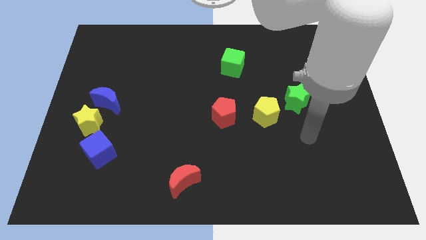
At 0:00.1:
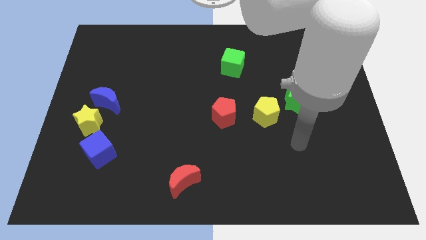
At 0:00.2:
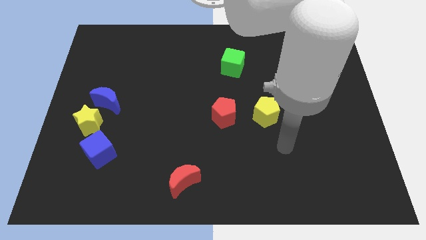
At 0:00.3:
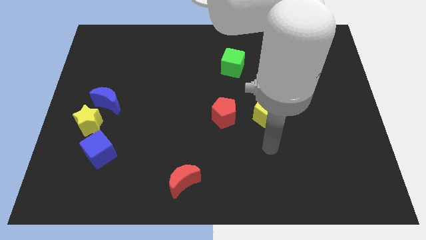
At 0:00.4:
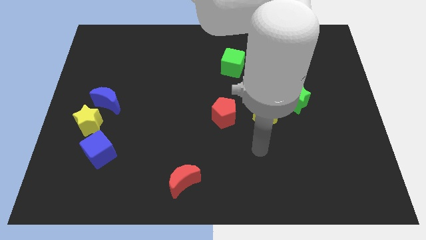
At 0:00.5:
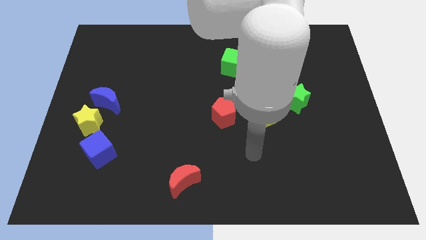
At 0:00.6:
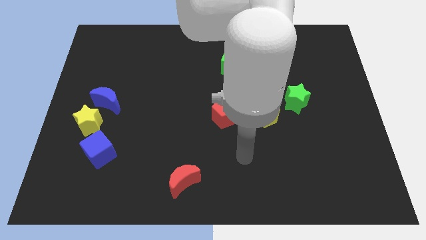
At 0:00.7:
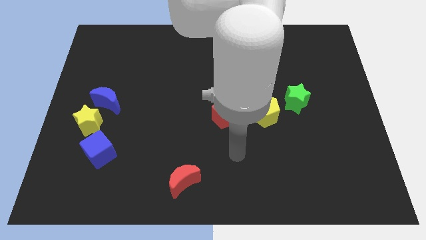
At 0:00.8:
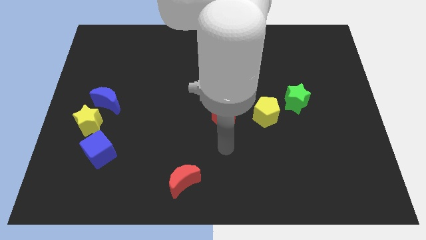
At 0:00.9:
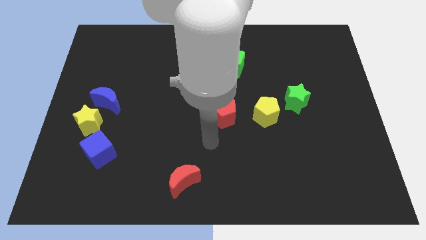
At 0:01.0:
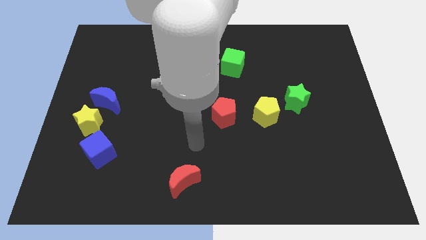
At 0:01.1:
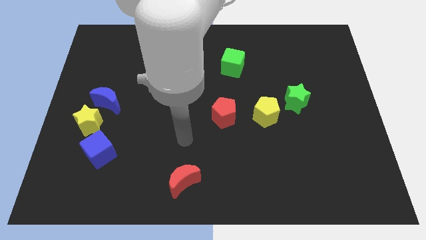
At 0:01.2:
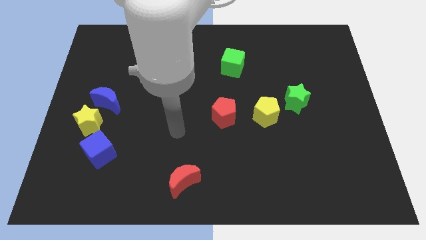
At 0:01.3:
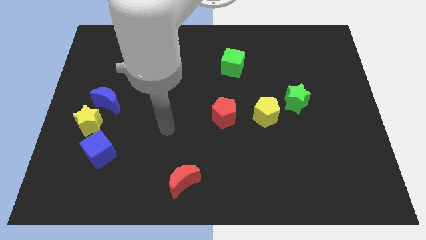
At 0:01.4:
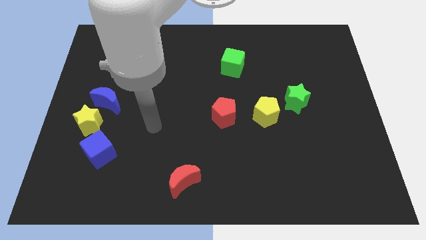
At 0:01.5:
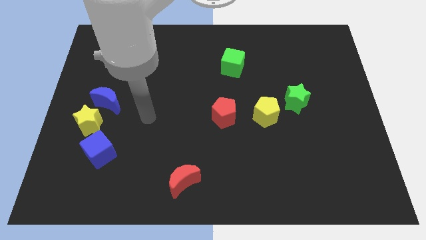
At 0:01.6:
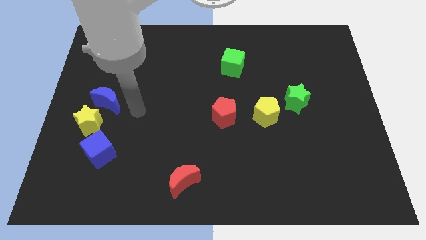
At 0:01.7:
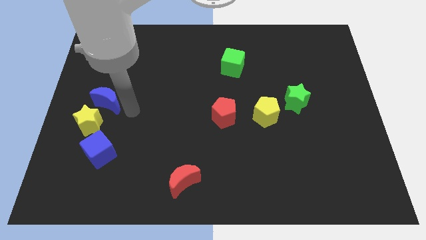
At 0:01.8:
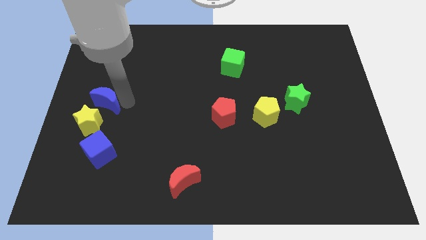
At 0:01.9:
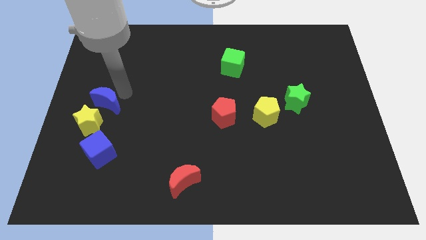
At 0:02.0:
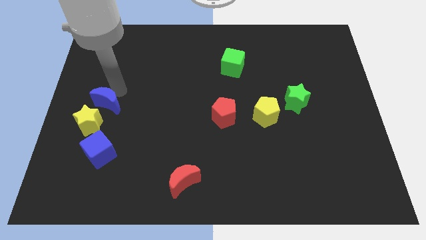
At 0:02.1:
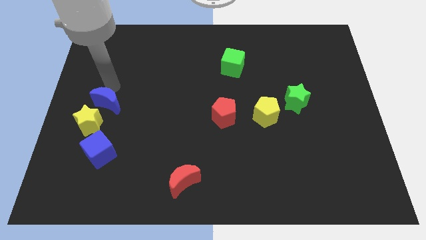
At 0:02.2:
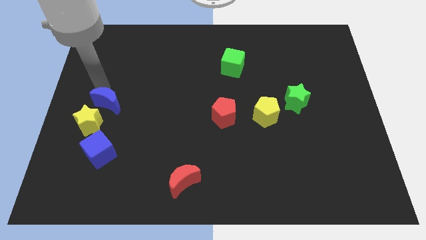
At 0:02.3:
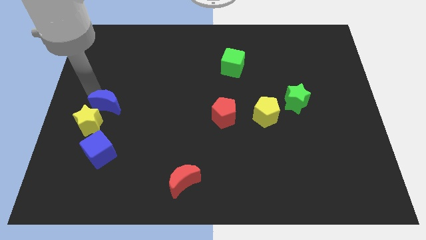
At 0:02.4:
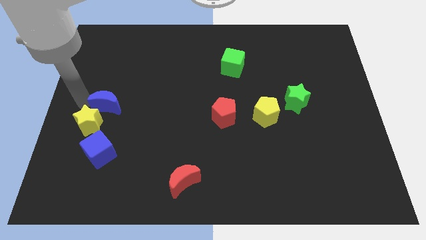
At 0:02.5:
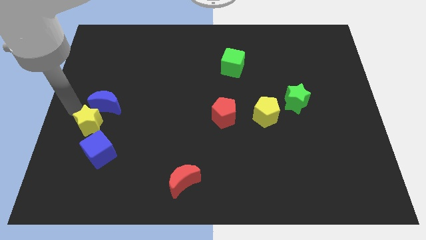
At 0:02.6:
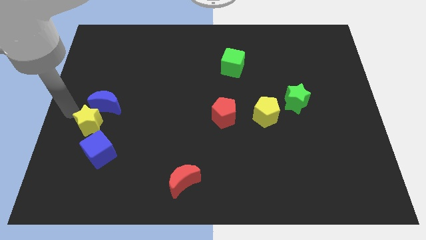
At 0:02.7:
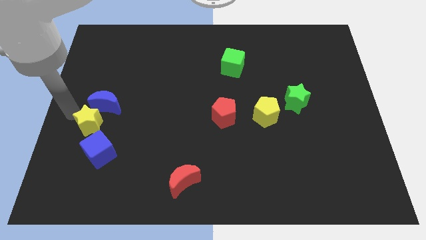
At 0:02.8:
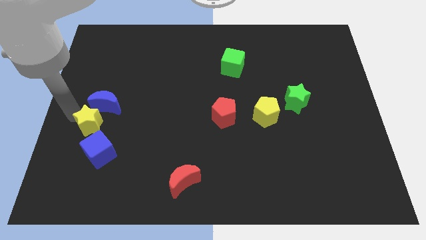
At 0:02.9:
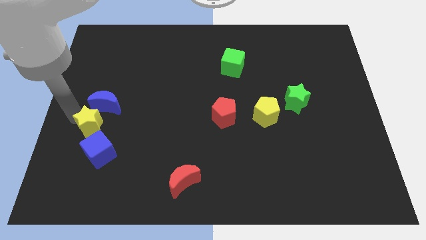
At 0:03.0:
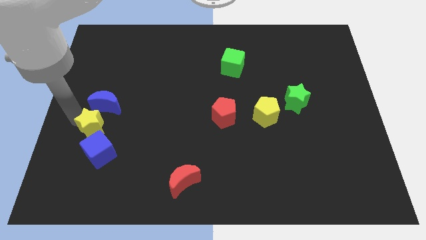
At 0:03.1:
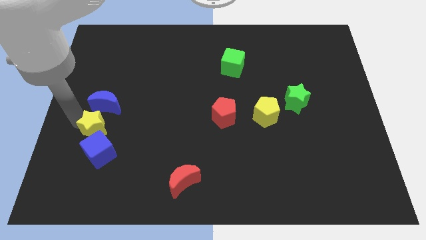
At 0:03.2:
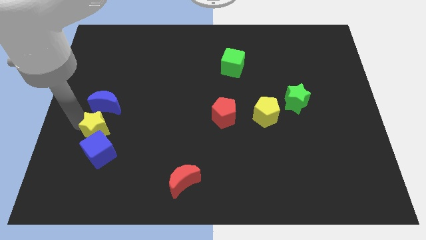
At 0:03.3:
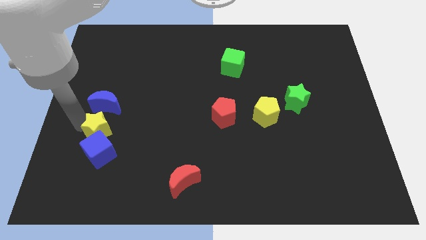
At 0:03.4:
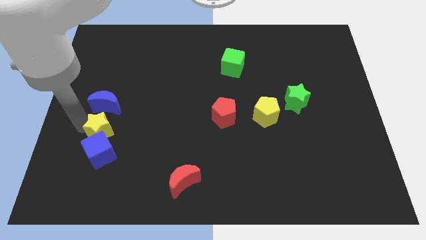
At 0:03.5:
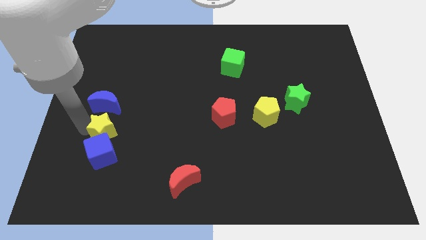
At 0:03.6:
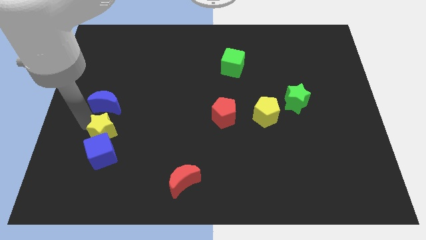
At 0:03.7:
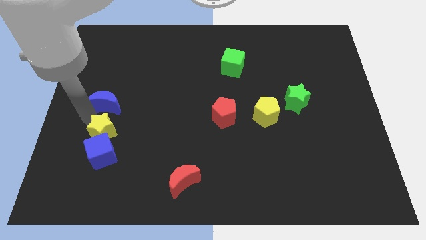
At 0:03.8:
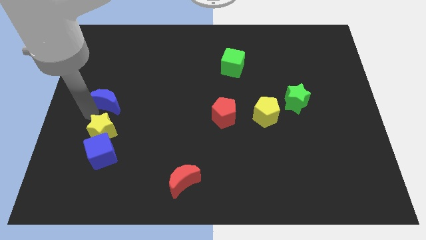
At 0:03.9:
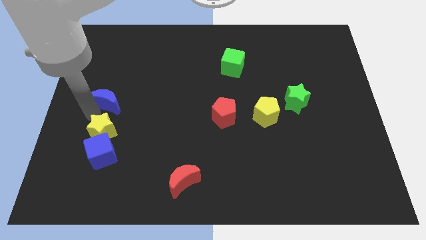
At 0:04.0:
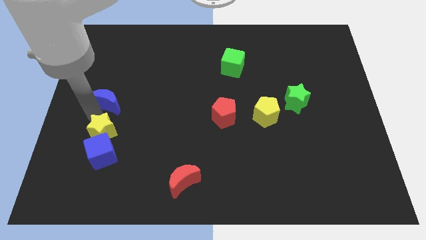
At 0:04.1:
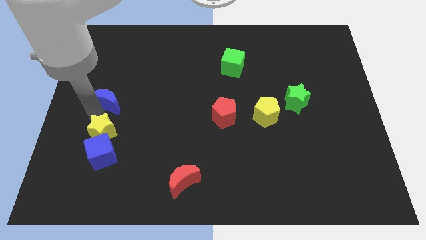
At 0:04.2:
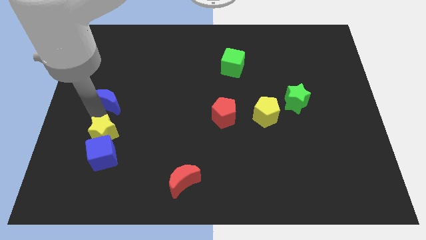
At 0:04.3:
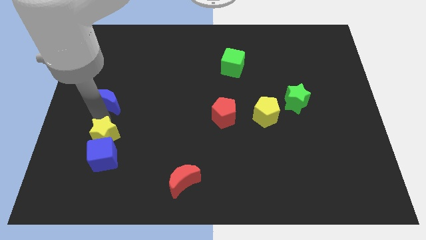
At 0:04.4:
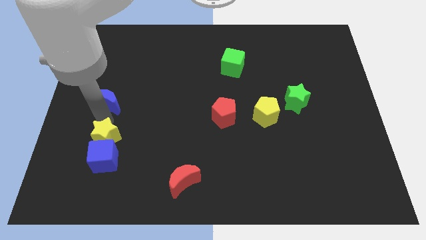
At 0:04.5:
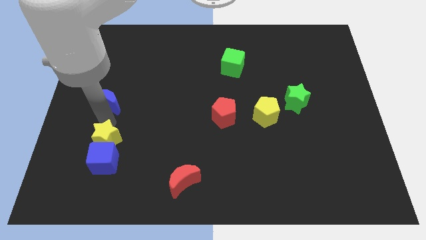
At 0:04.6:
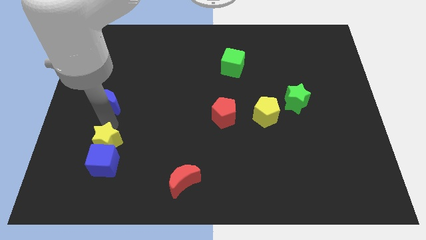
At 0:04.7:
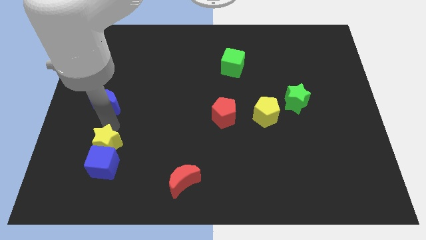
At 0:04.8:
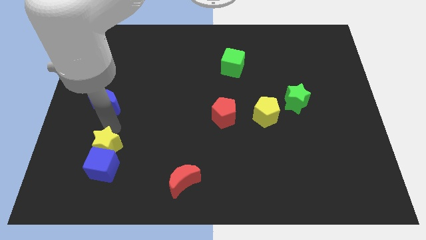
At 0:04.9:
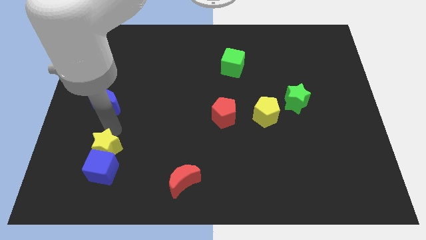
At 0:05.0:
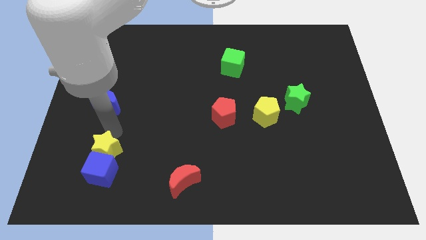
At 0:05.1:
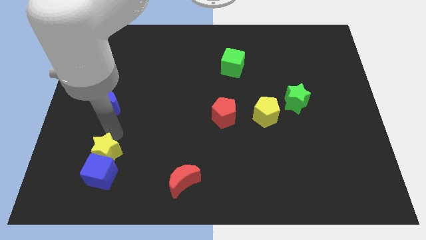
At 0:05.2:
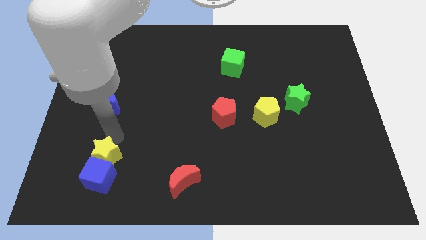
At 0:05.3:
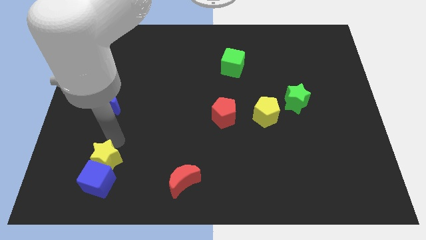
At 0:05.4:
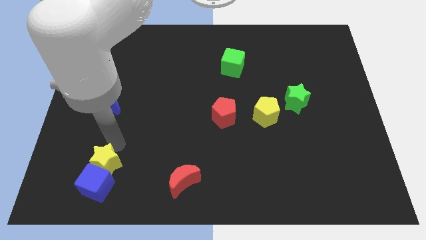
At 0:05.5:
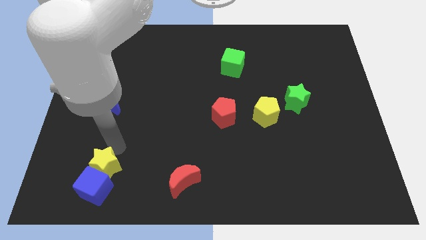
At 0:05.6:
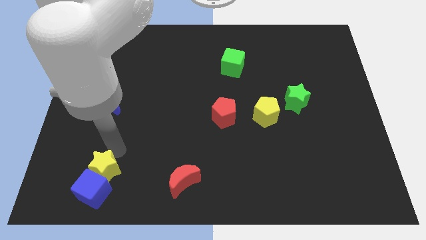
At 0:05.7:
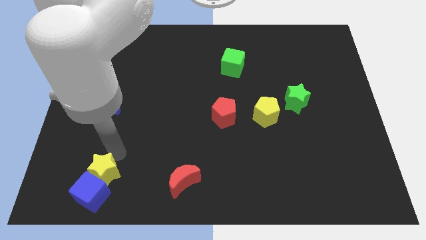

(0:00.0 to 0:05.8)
put the yellow star left of the red moon

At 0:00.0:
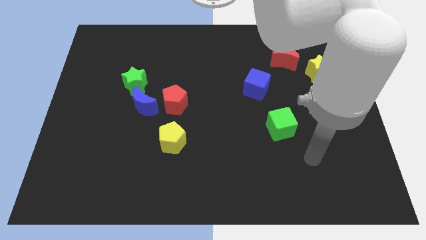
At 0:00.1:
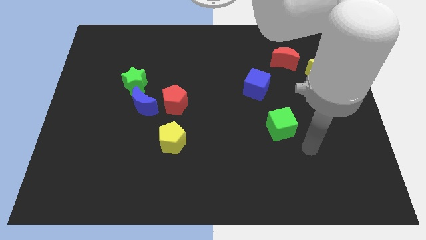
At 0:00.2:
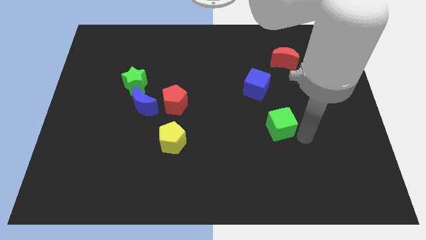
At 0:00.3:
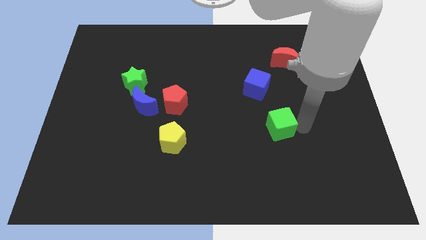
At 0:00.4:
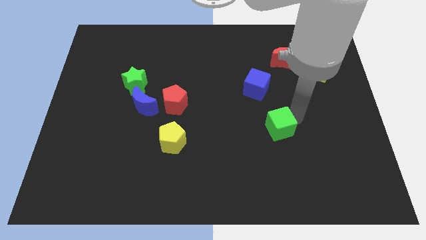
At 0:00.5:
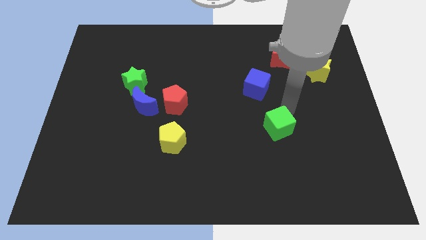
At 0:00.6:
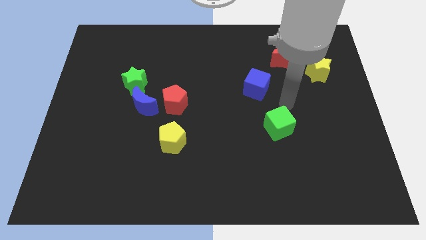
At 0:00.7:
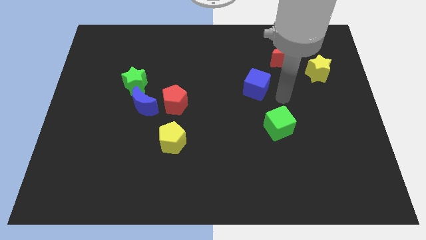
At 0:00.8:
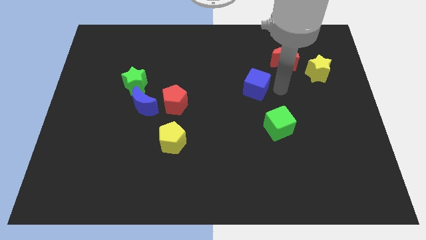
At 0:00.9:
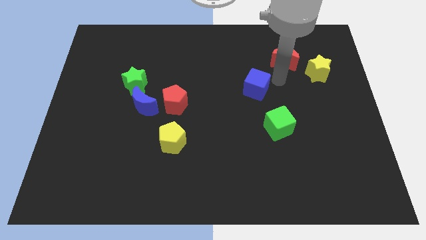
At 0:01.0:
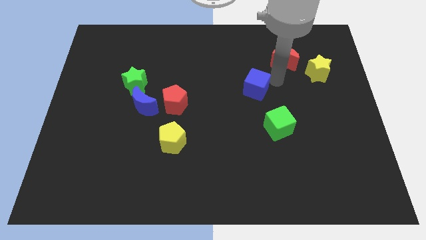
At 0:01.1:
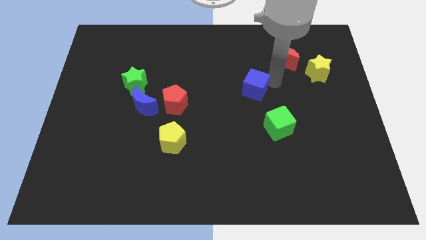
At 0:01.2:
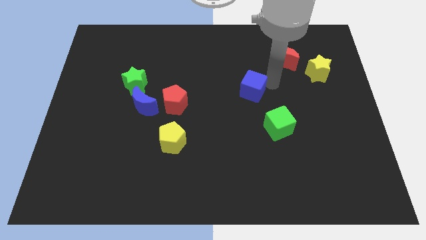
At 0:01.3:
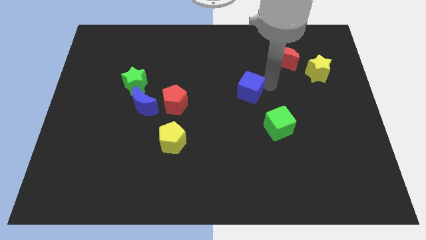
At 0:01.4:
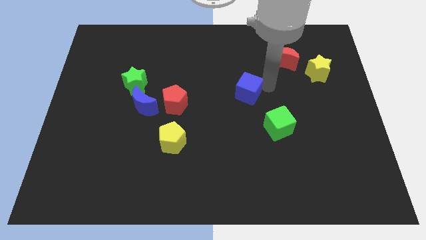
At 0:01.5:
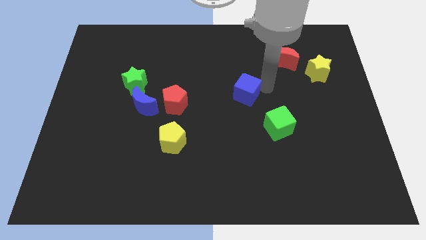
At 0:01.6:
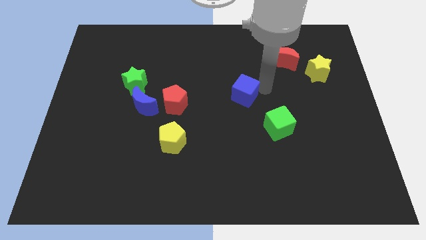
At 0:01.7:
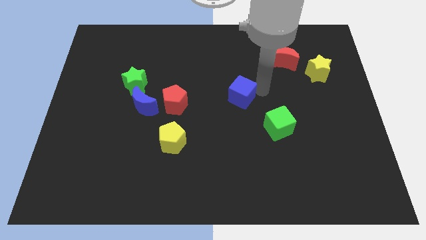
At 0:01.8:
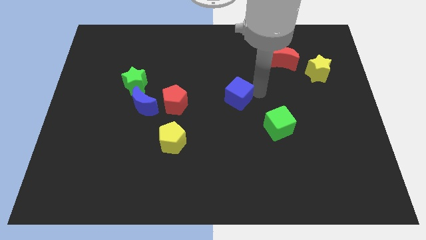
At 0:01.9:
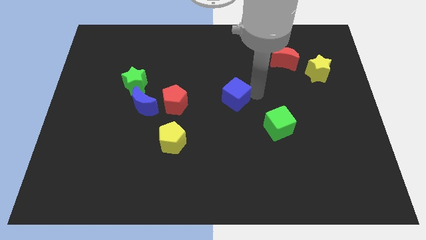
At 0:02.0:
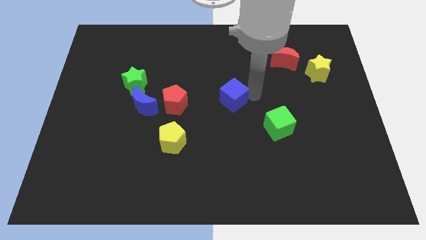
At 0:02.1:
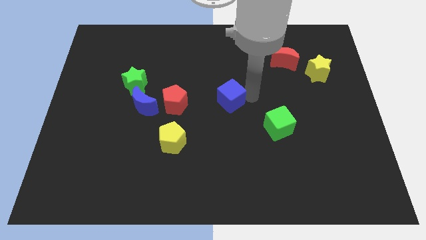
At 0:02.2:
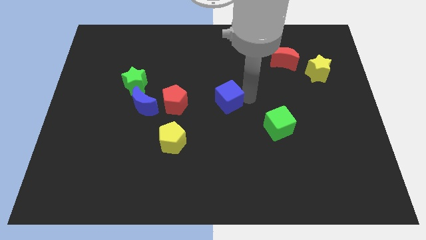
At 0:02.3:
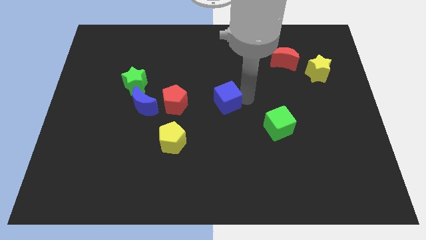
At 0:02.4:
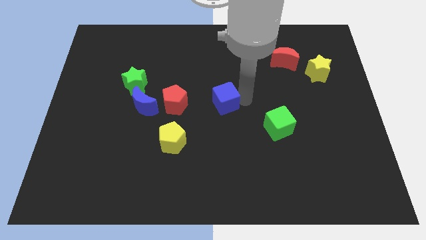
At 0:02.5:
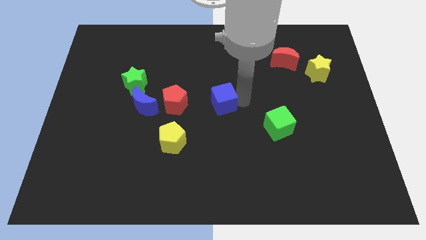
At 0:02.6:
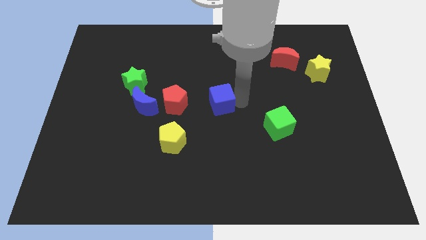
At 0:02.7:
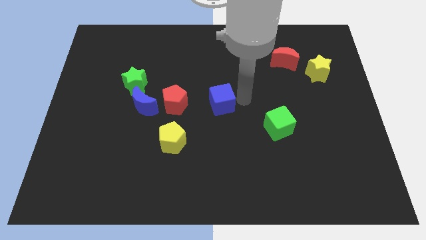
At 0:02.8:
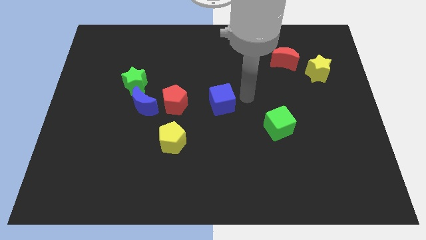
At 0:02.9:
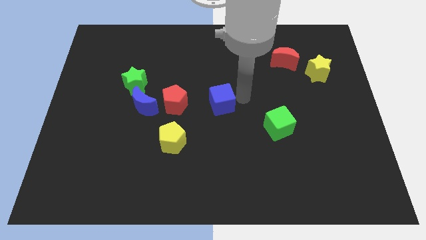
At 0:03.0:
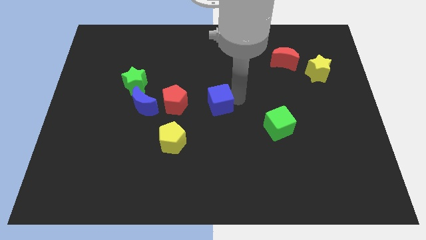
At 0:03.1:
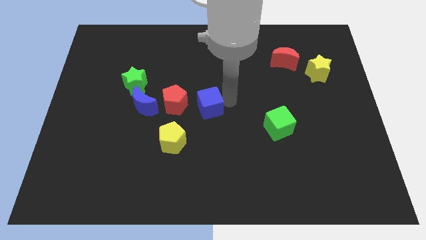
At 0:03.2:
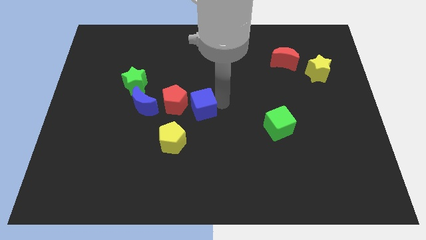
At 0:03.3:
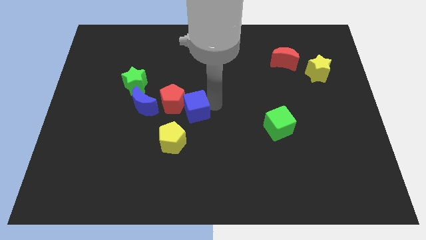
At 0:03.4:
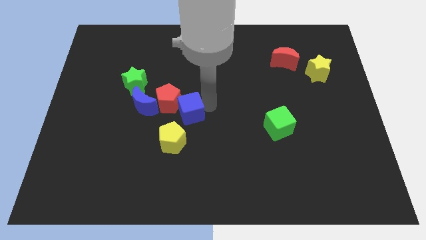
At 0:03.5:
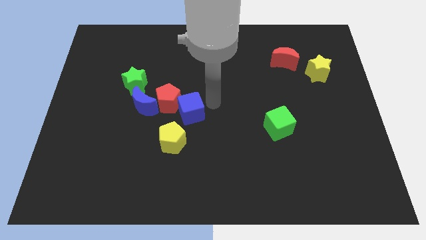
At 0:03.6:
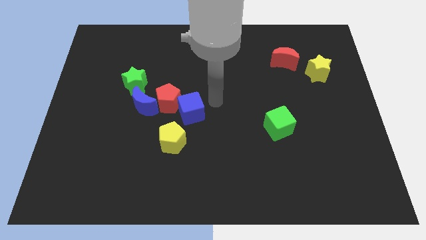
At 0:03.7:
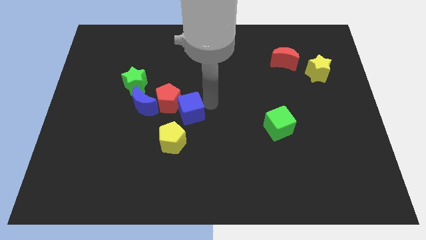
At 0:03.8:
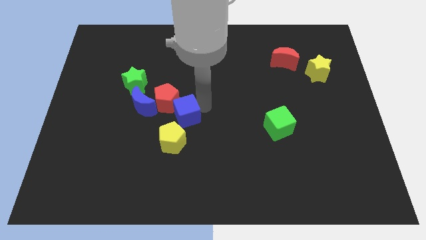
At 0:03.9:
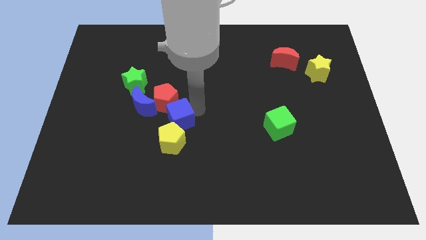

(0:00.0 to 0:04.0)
move the blue cube to the bottom right side of the blue moon
